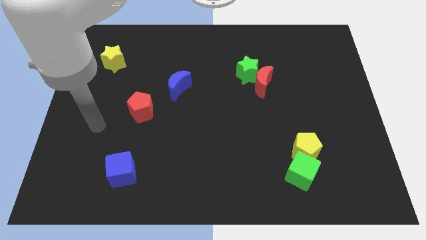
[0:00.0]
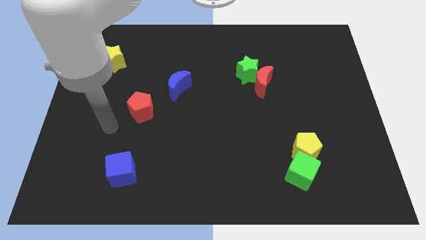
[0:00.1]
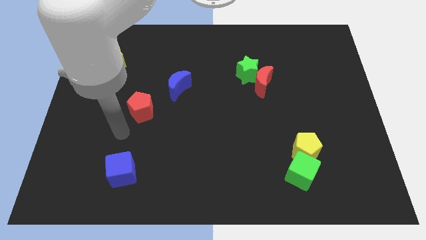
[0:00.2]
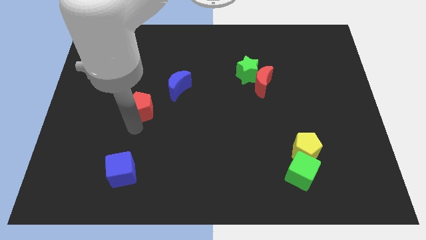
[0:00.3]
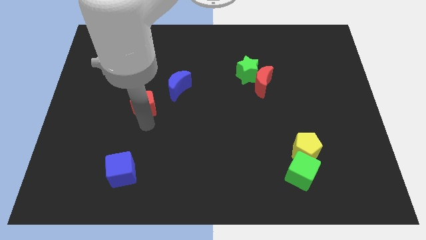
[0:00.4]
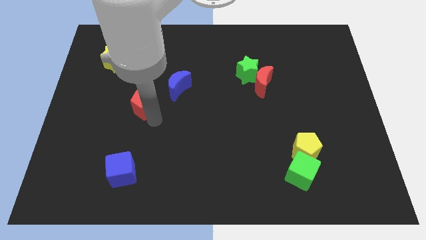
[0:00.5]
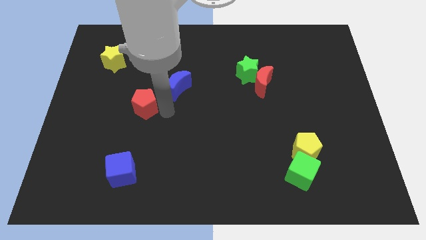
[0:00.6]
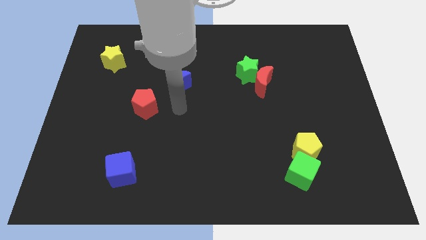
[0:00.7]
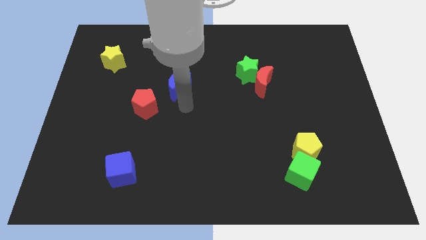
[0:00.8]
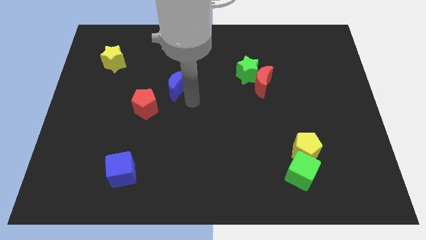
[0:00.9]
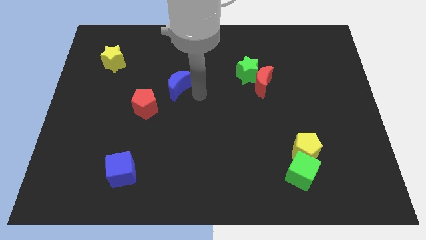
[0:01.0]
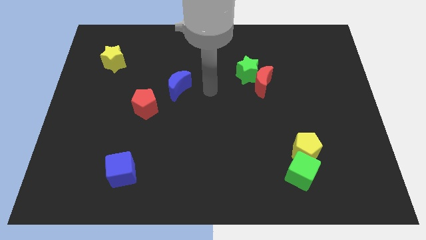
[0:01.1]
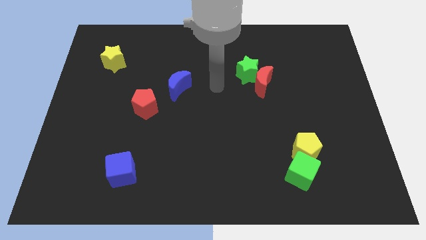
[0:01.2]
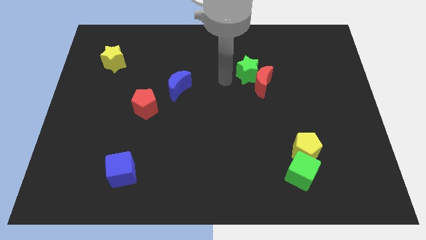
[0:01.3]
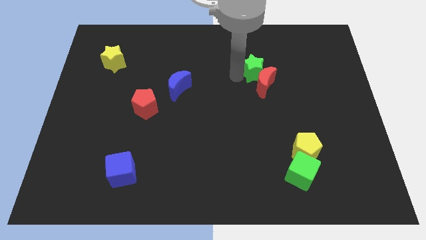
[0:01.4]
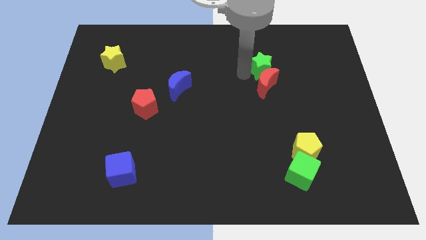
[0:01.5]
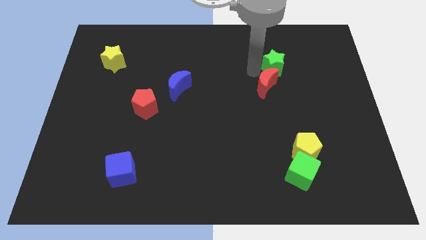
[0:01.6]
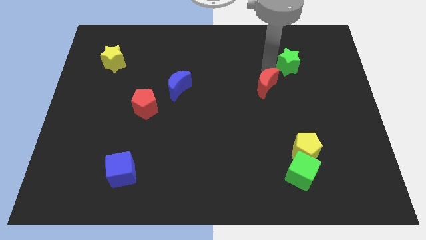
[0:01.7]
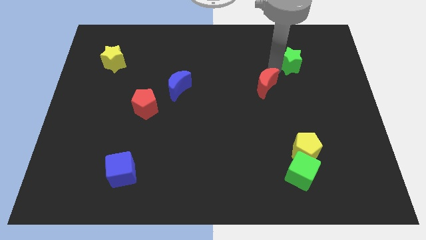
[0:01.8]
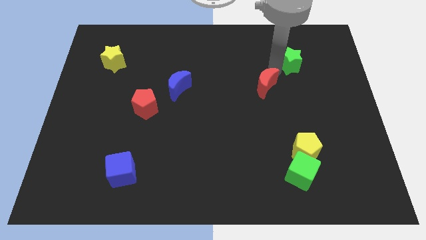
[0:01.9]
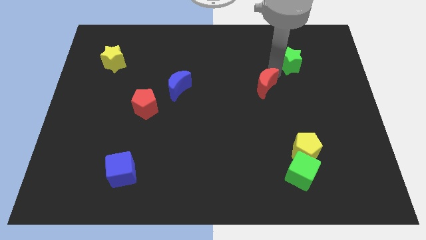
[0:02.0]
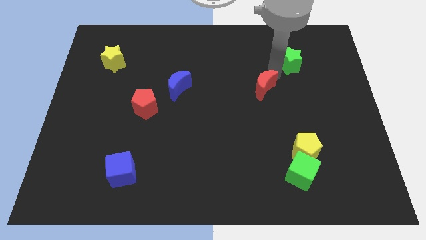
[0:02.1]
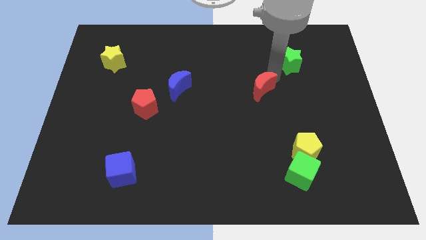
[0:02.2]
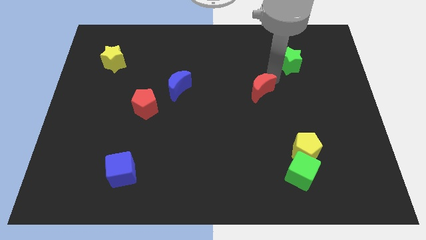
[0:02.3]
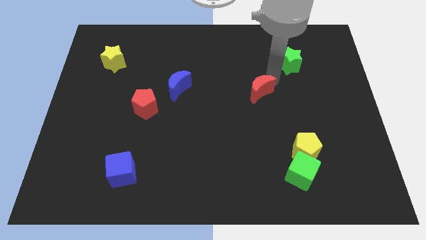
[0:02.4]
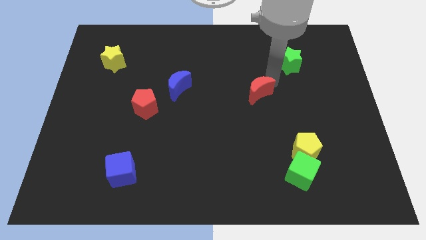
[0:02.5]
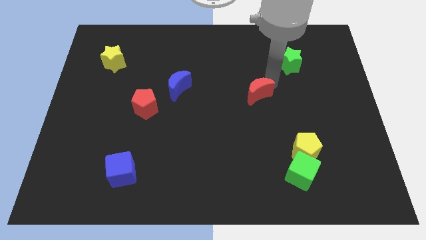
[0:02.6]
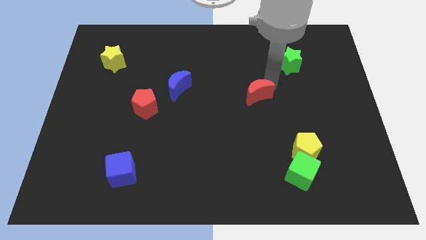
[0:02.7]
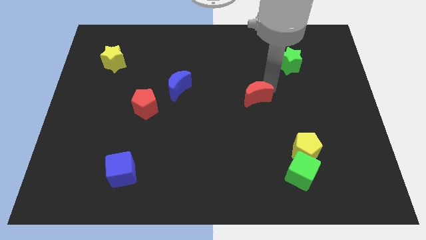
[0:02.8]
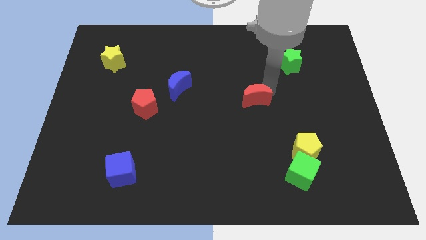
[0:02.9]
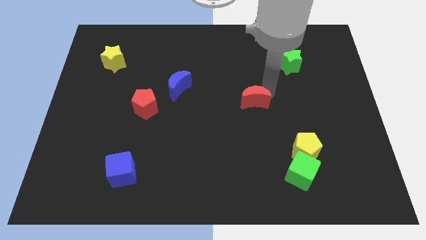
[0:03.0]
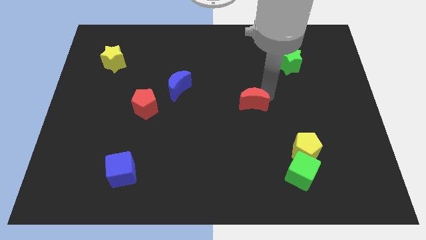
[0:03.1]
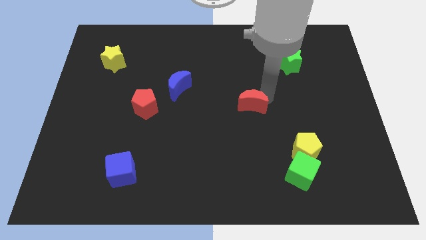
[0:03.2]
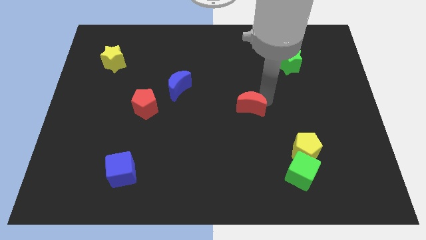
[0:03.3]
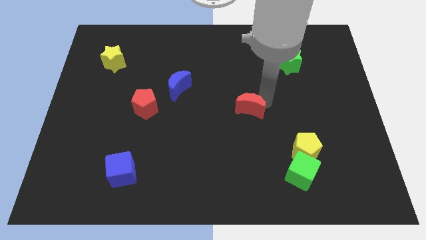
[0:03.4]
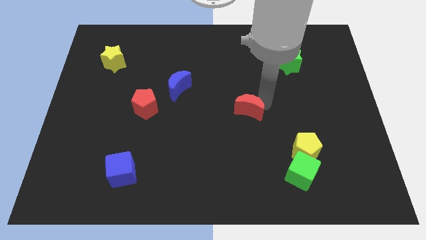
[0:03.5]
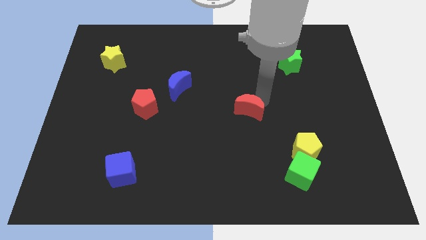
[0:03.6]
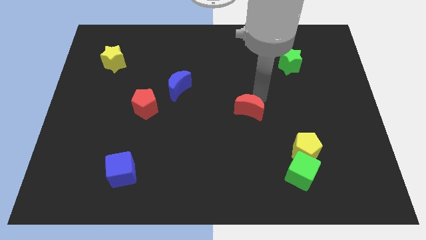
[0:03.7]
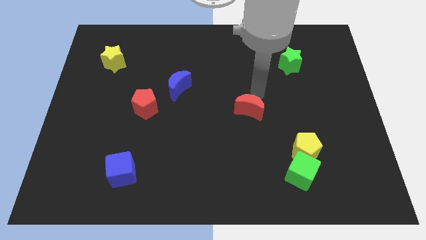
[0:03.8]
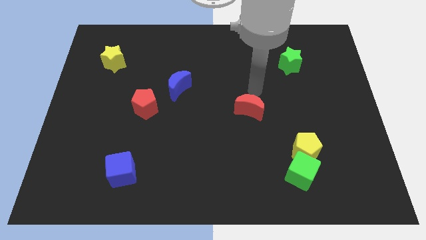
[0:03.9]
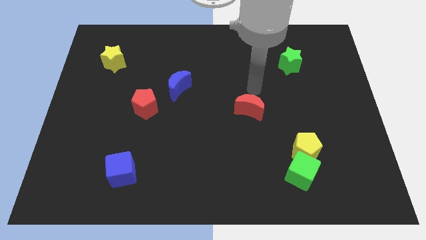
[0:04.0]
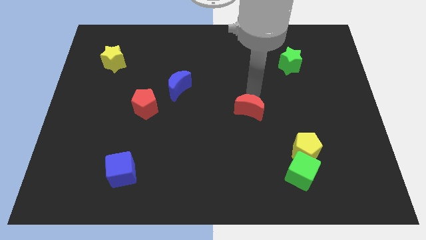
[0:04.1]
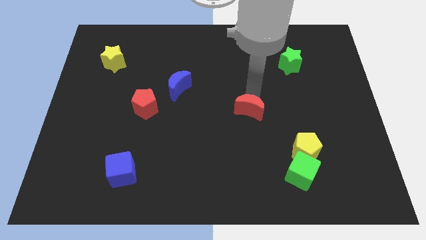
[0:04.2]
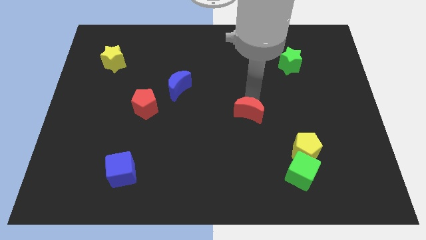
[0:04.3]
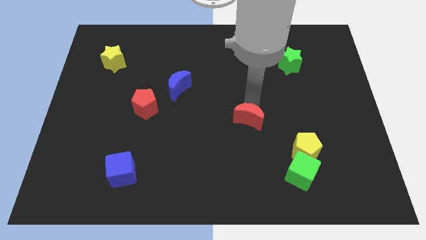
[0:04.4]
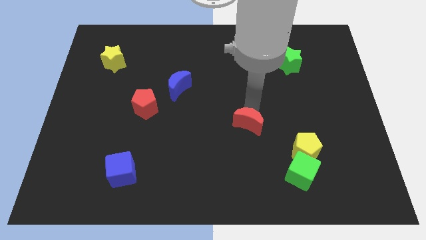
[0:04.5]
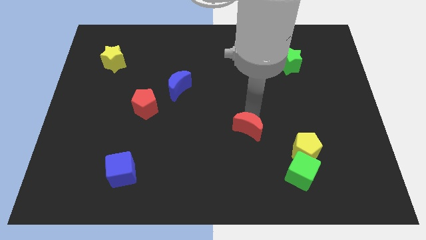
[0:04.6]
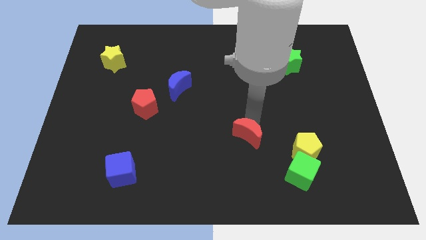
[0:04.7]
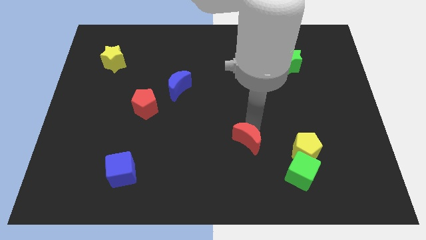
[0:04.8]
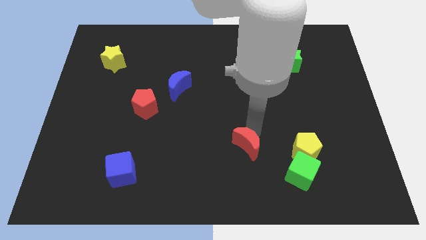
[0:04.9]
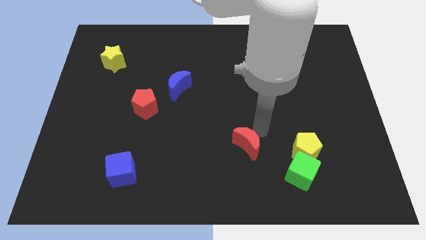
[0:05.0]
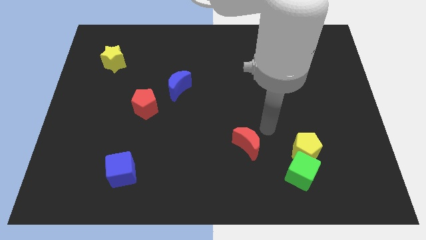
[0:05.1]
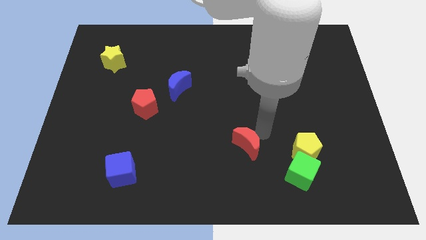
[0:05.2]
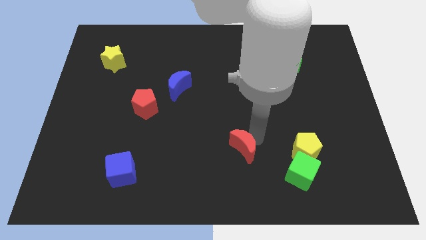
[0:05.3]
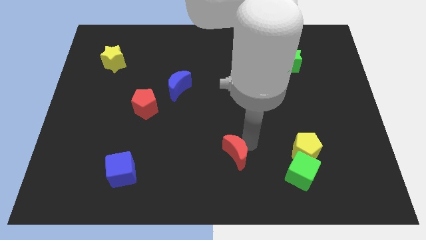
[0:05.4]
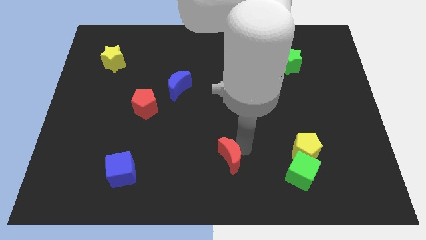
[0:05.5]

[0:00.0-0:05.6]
put the red moon to the bottom side

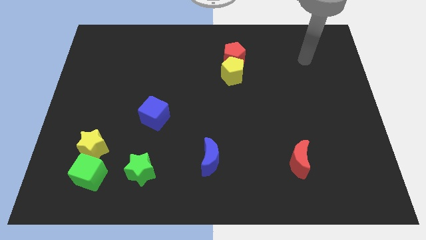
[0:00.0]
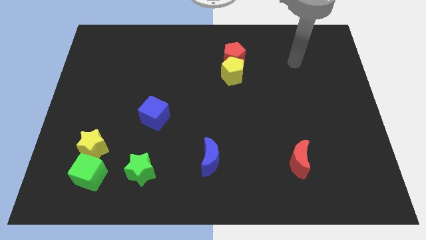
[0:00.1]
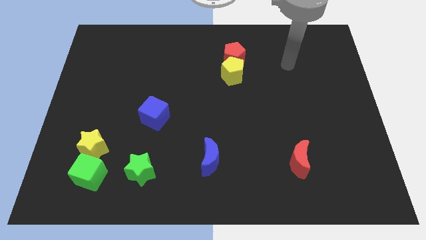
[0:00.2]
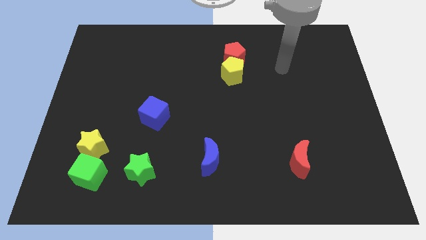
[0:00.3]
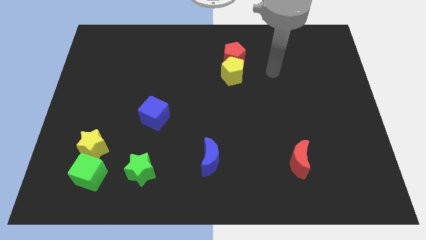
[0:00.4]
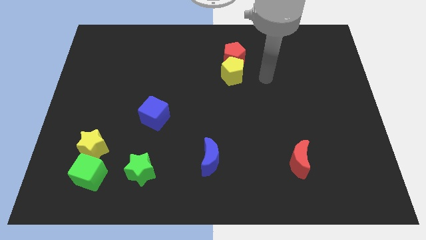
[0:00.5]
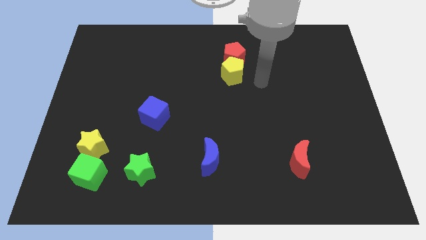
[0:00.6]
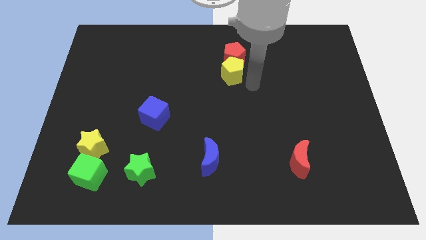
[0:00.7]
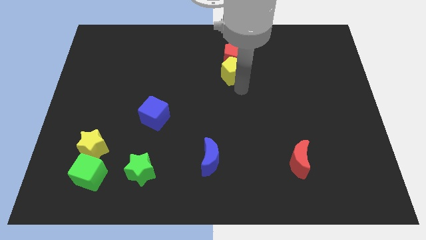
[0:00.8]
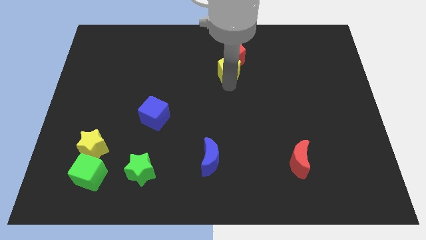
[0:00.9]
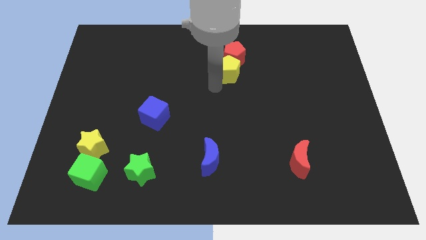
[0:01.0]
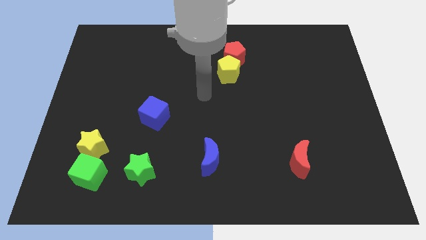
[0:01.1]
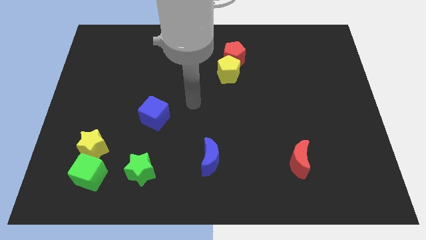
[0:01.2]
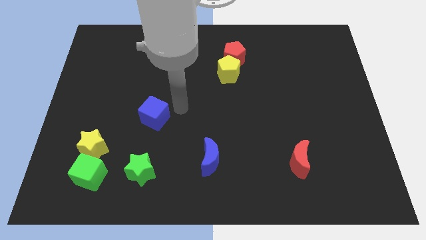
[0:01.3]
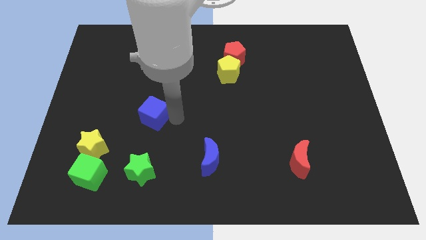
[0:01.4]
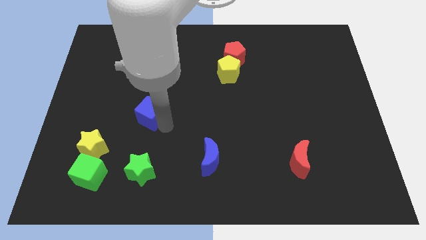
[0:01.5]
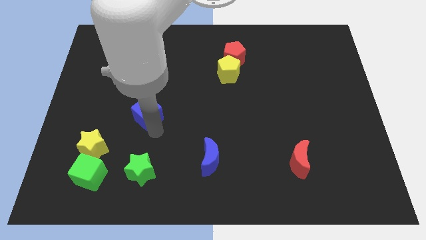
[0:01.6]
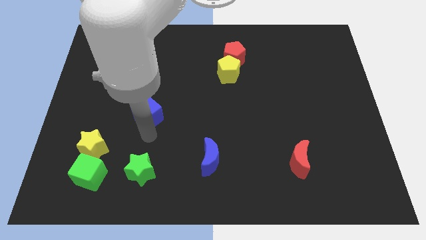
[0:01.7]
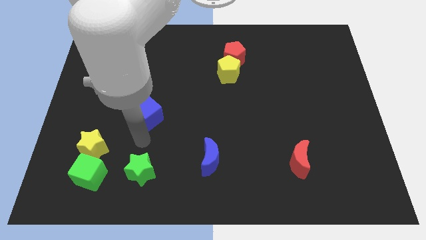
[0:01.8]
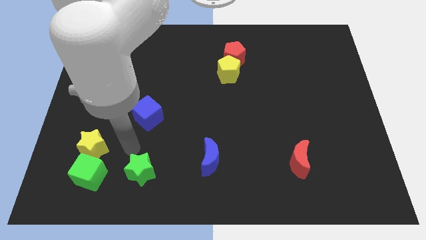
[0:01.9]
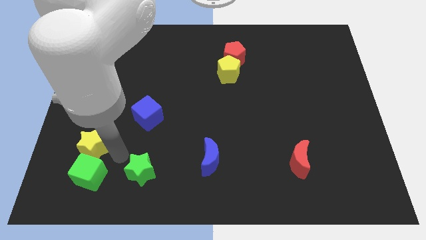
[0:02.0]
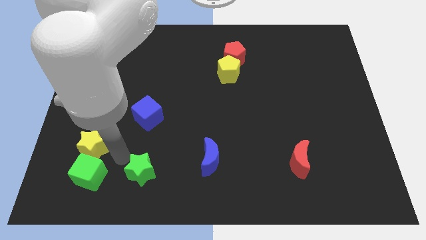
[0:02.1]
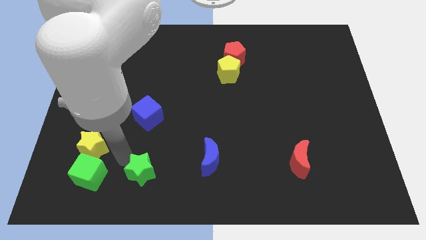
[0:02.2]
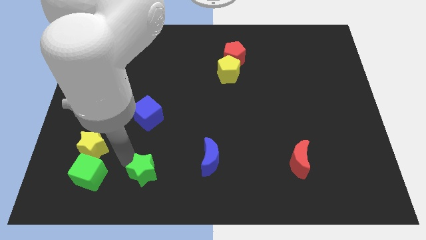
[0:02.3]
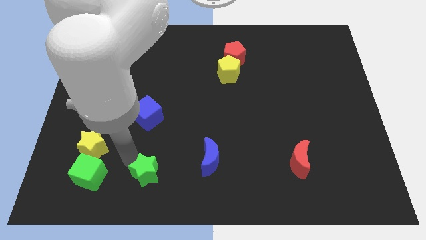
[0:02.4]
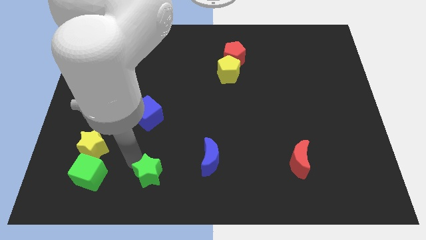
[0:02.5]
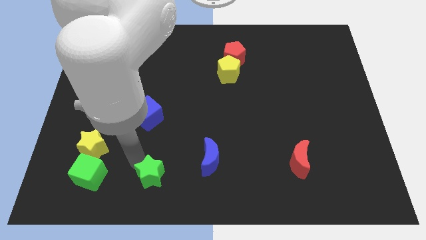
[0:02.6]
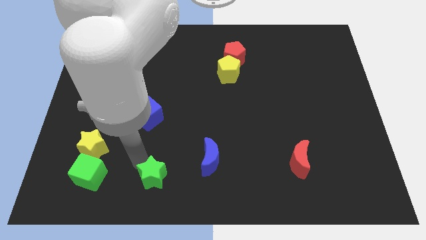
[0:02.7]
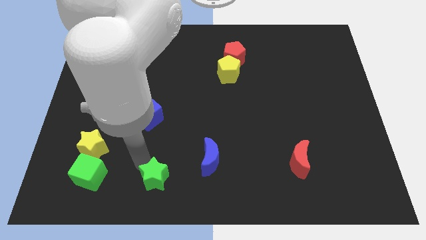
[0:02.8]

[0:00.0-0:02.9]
move the green star to the bottom
